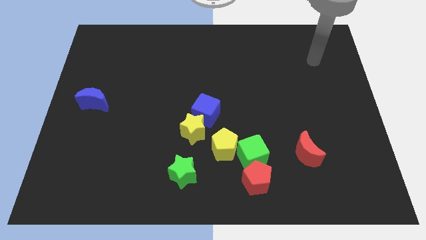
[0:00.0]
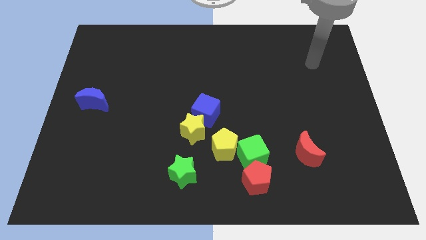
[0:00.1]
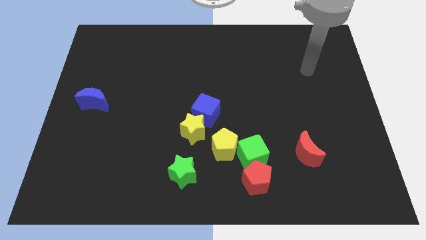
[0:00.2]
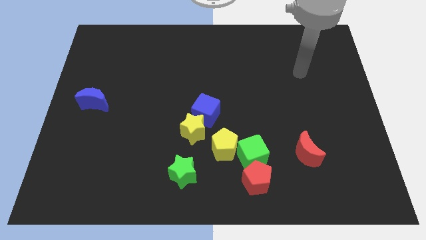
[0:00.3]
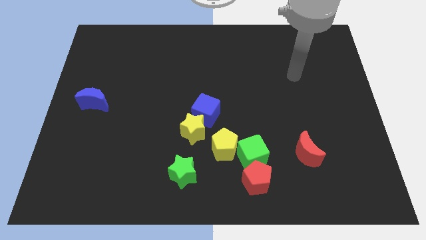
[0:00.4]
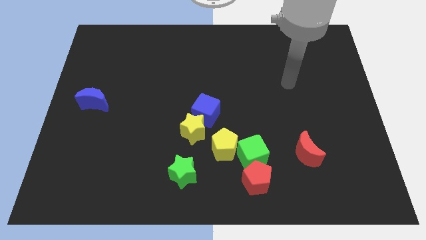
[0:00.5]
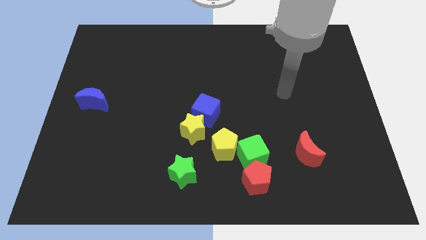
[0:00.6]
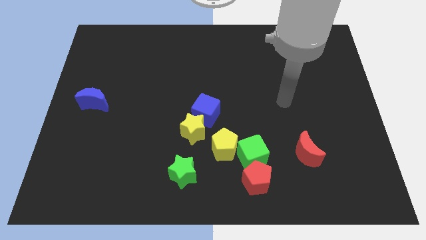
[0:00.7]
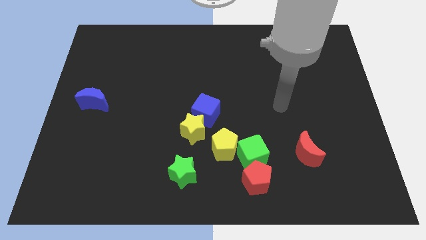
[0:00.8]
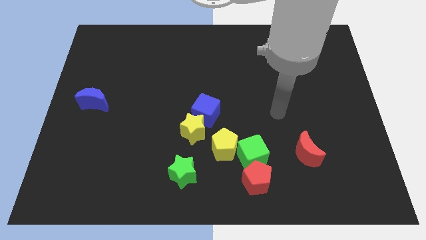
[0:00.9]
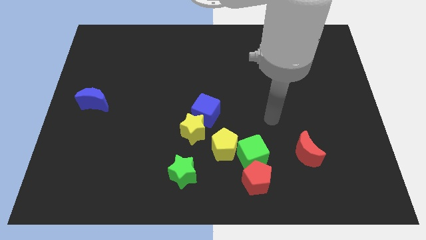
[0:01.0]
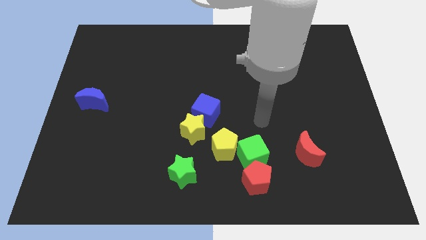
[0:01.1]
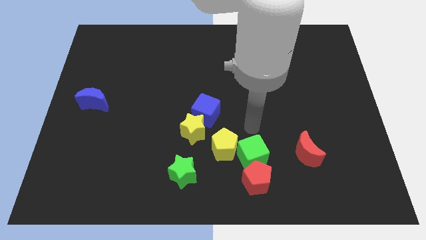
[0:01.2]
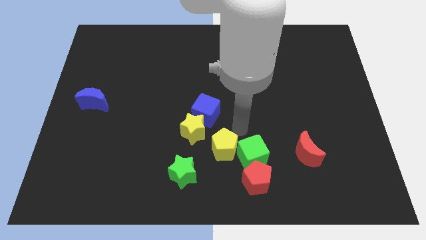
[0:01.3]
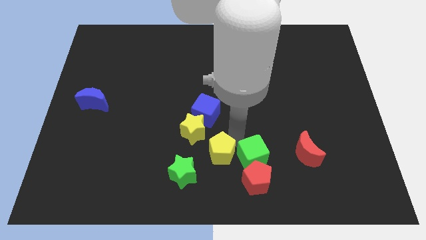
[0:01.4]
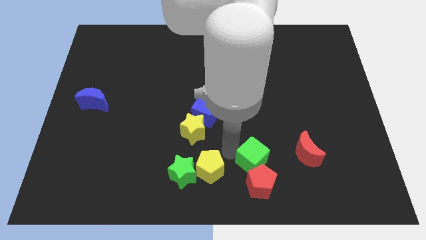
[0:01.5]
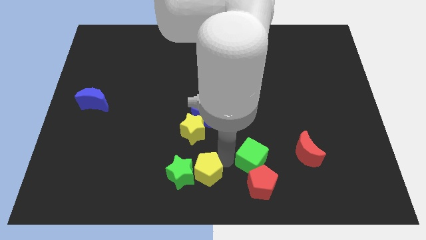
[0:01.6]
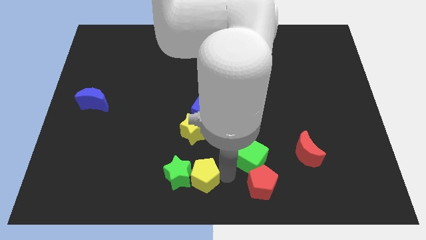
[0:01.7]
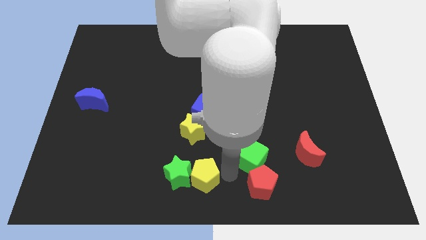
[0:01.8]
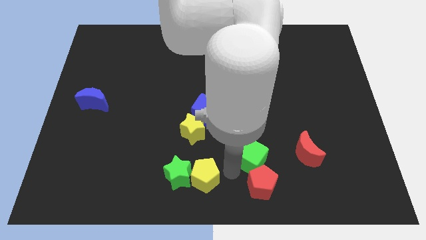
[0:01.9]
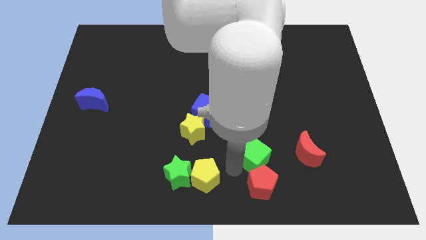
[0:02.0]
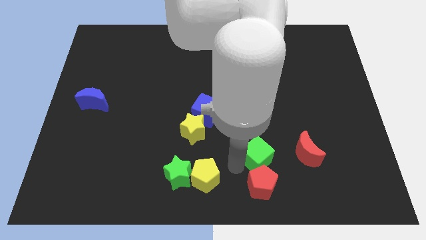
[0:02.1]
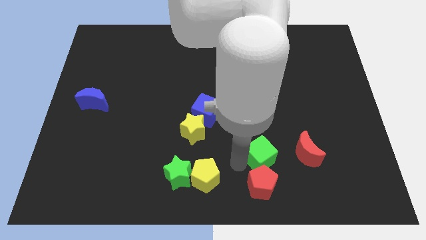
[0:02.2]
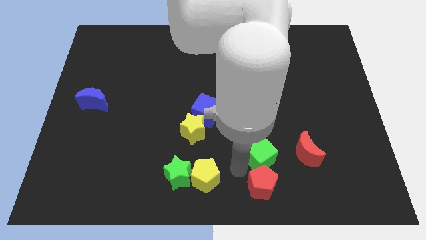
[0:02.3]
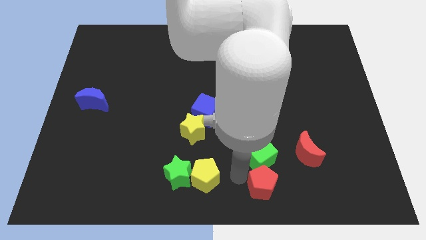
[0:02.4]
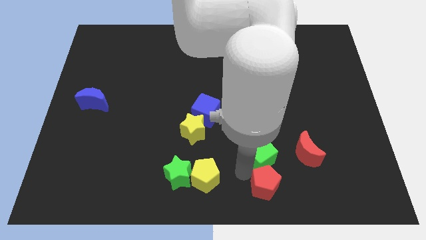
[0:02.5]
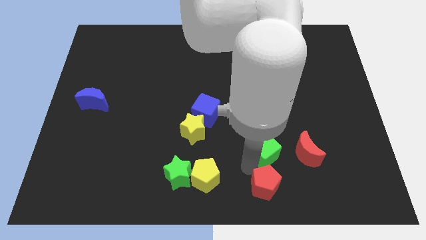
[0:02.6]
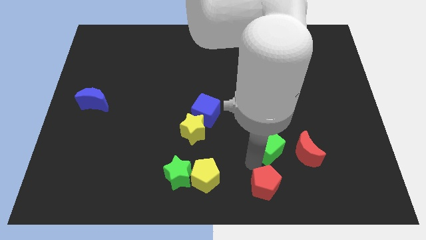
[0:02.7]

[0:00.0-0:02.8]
separate the green cube from the yellow pentagon and red pentagon

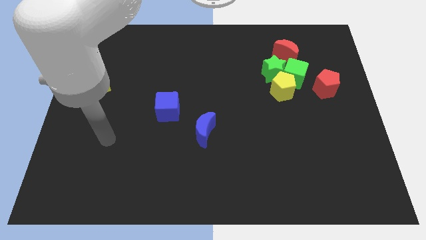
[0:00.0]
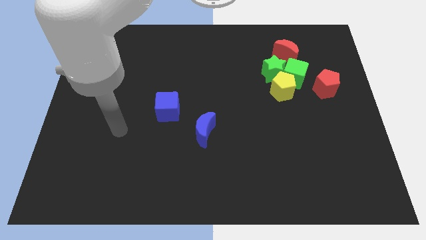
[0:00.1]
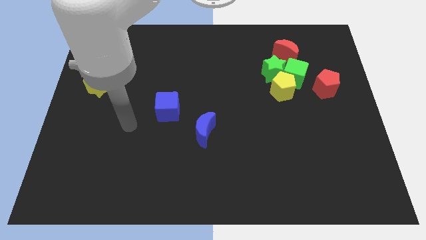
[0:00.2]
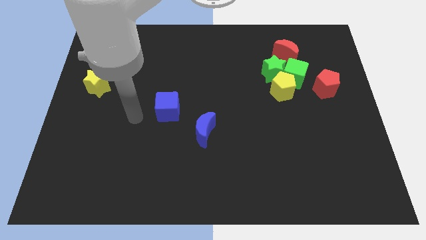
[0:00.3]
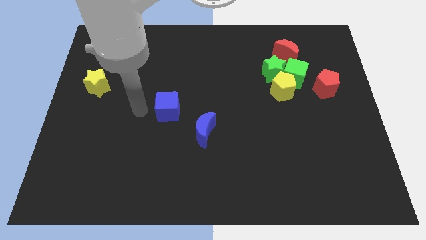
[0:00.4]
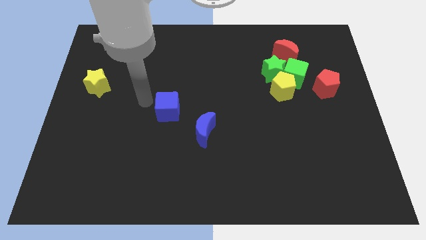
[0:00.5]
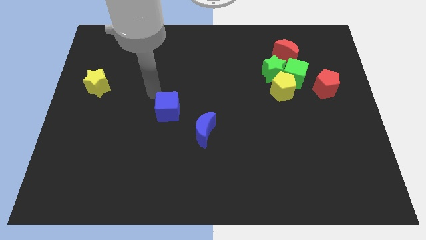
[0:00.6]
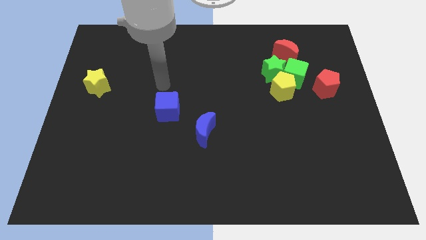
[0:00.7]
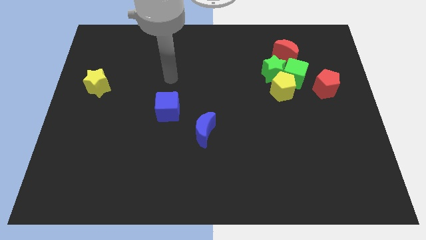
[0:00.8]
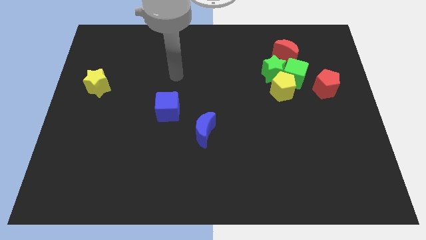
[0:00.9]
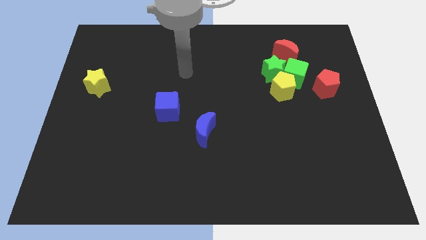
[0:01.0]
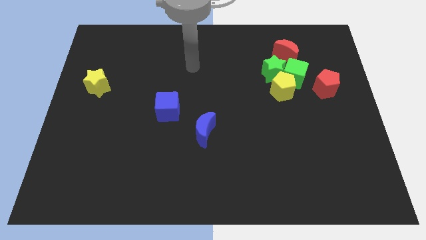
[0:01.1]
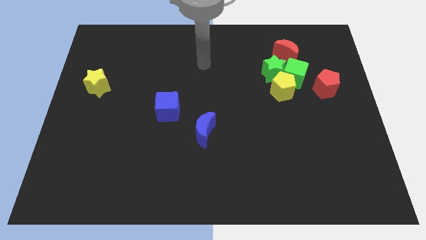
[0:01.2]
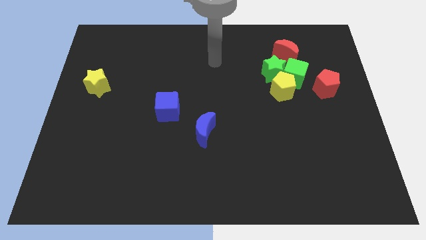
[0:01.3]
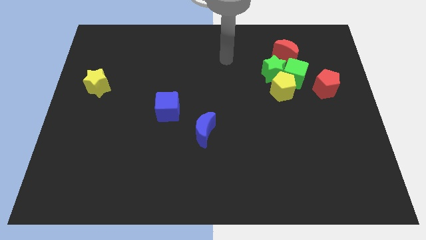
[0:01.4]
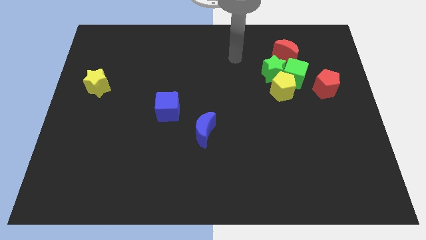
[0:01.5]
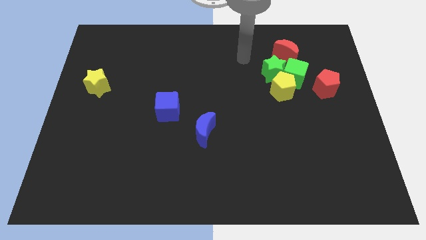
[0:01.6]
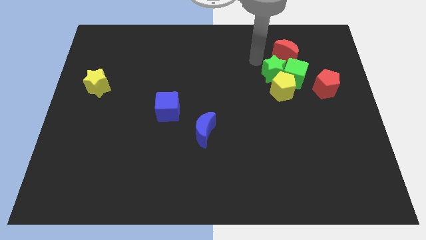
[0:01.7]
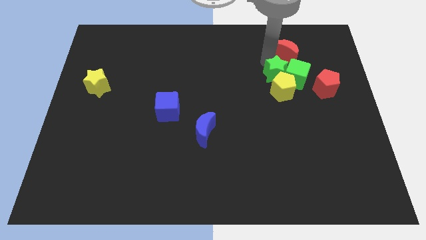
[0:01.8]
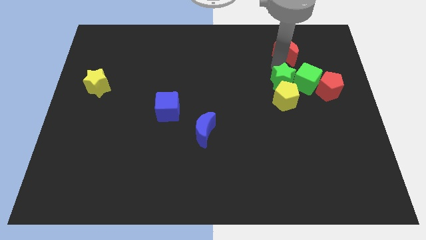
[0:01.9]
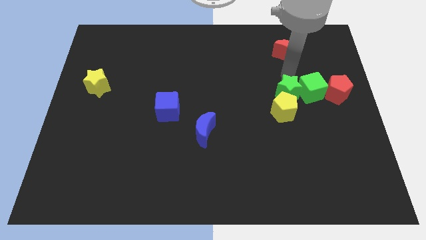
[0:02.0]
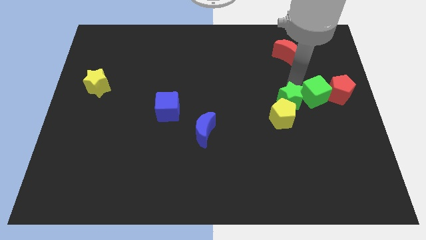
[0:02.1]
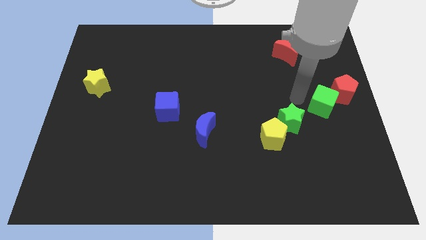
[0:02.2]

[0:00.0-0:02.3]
separate the yellow pentagon from the green cube and green star

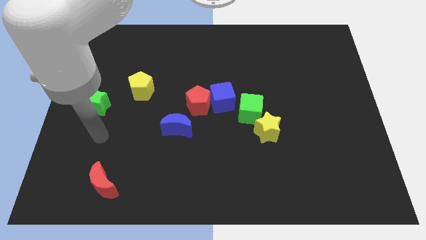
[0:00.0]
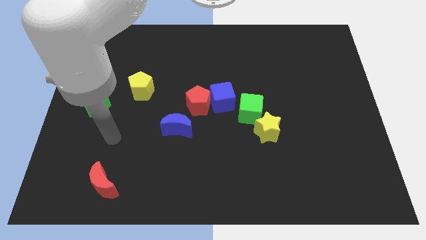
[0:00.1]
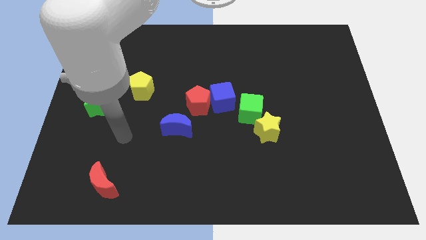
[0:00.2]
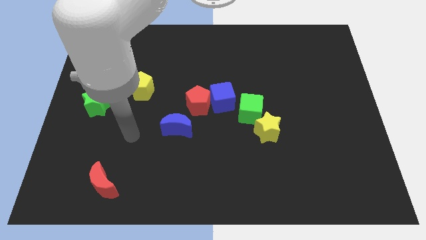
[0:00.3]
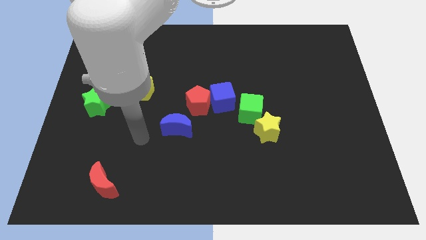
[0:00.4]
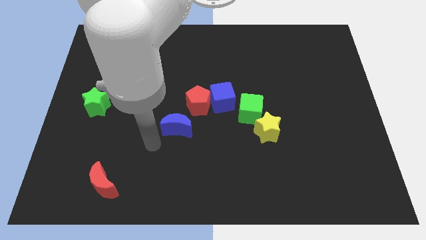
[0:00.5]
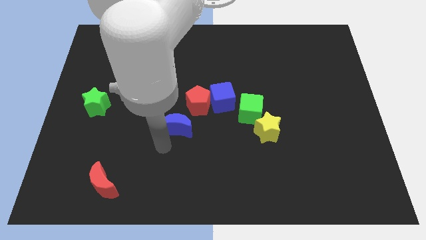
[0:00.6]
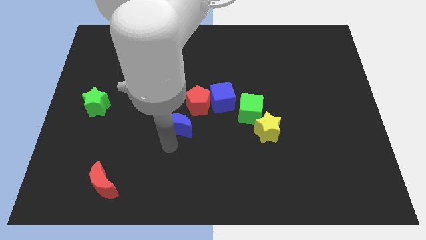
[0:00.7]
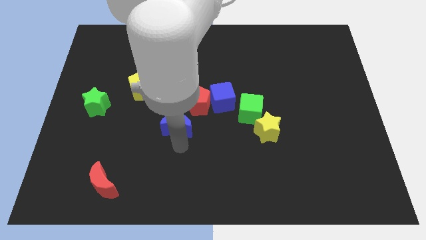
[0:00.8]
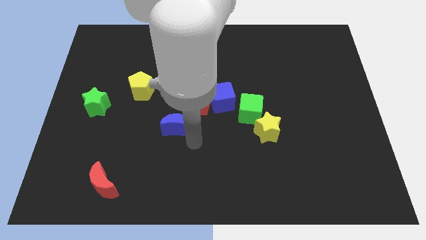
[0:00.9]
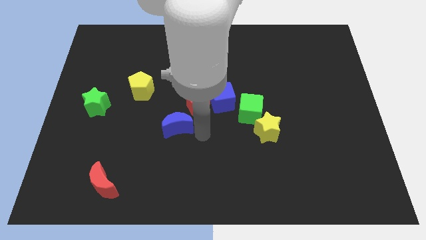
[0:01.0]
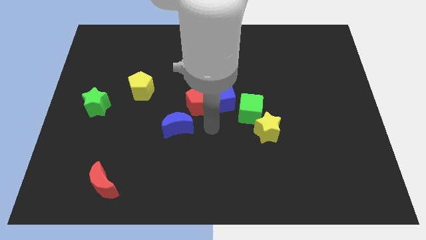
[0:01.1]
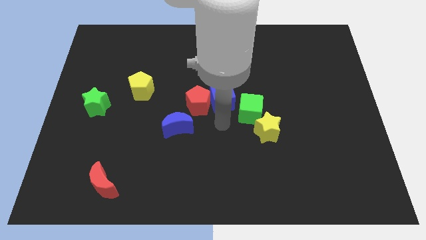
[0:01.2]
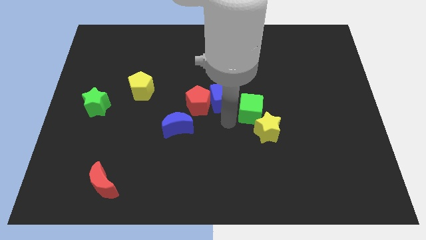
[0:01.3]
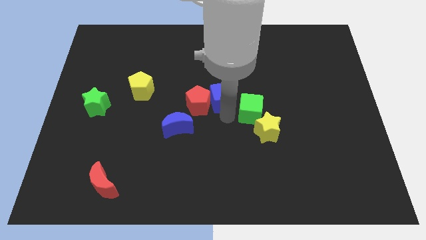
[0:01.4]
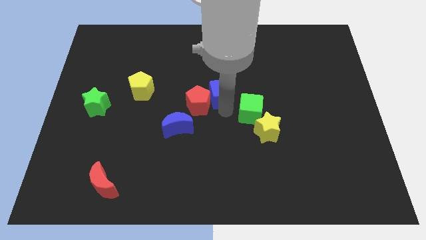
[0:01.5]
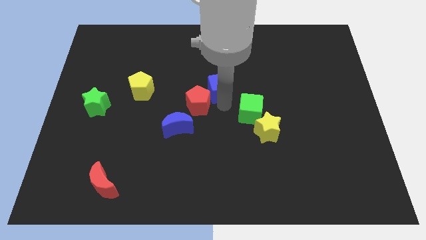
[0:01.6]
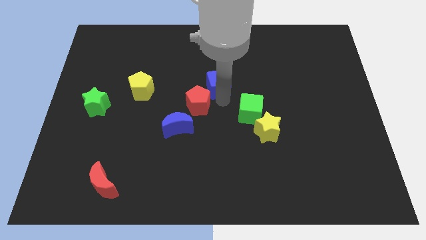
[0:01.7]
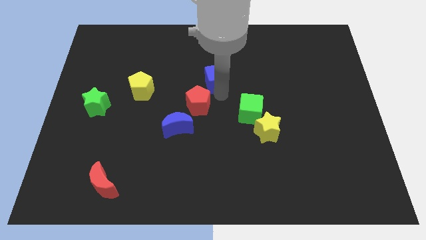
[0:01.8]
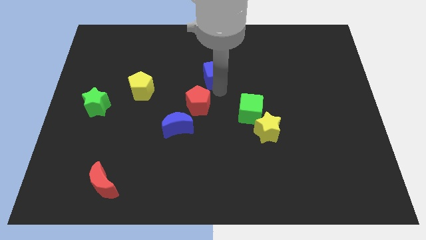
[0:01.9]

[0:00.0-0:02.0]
move the blue cube away from the red pentagon and green cube

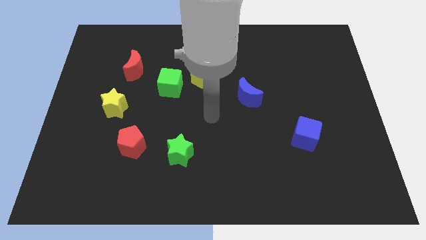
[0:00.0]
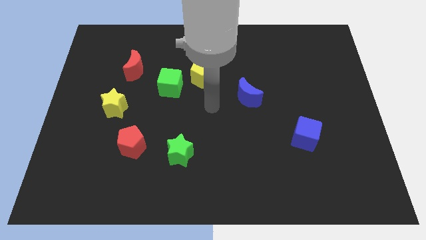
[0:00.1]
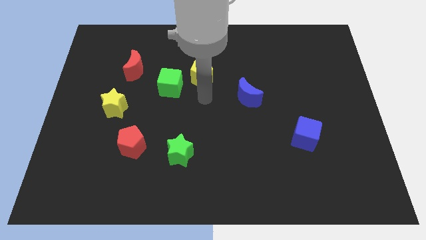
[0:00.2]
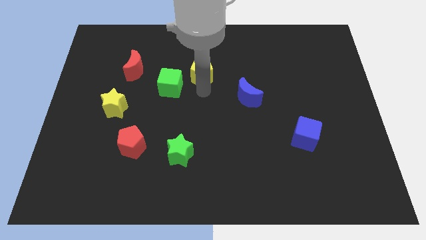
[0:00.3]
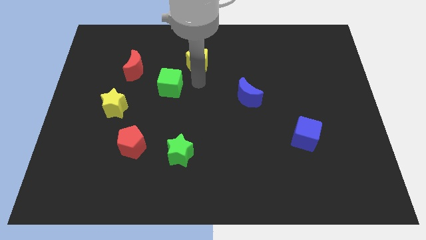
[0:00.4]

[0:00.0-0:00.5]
move the green cube away from the yellow pentagon

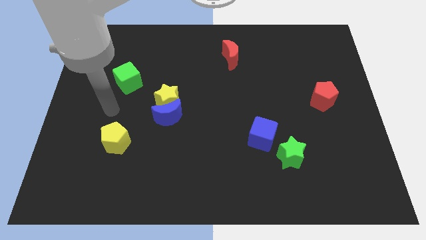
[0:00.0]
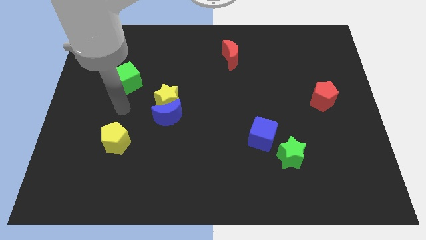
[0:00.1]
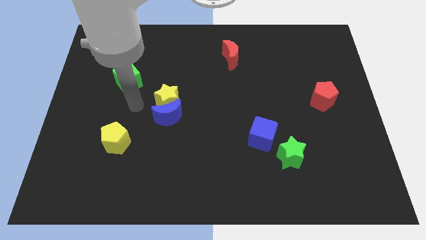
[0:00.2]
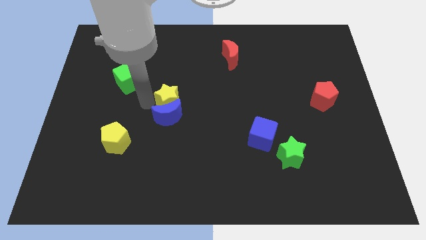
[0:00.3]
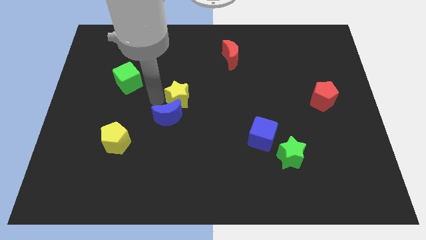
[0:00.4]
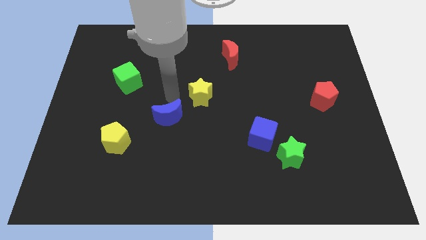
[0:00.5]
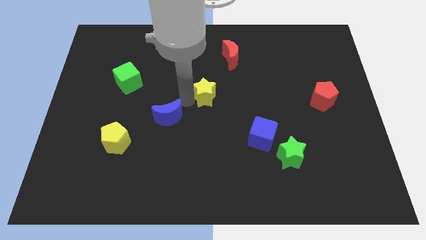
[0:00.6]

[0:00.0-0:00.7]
pull the blue moon apart from the yellow star

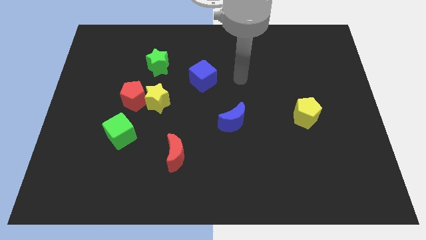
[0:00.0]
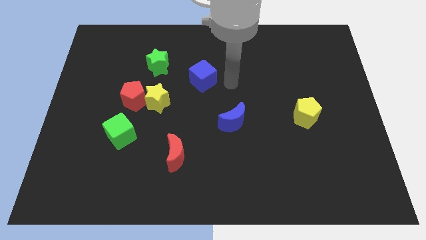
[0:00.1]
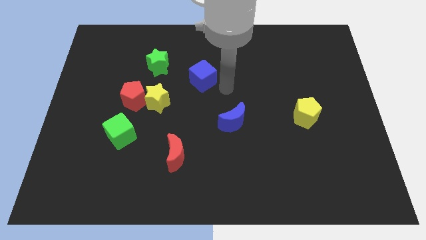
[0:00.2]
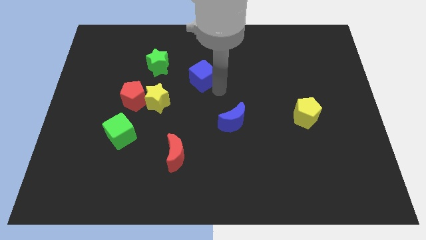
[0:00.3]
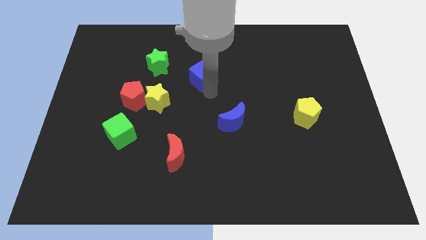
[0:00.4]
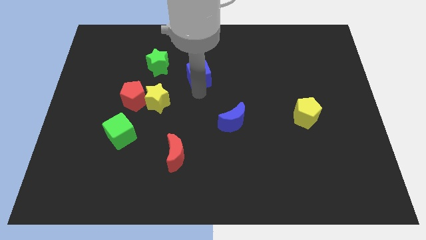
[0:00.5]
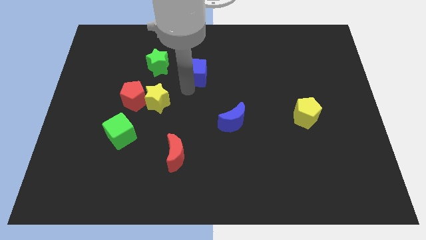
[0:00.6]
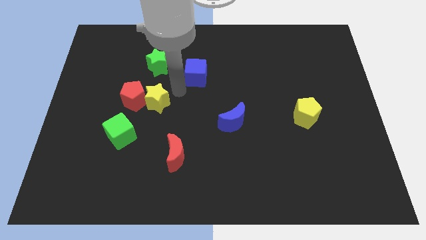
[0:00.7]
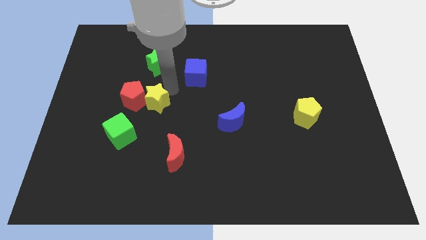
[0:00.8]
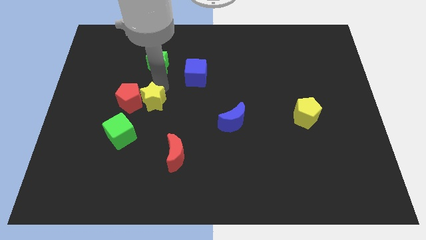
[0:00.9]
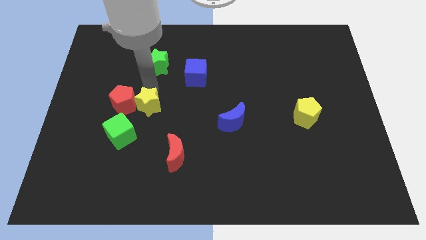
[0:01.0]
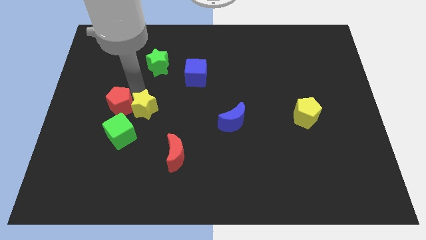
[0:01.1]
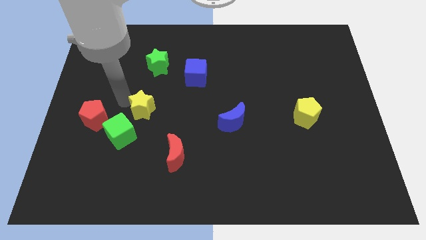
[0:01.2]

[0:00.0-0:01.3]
move the yellow star away from the red pentagon
